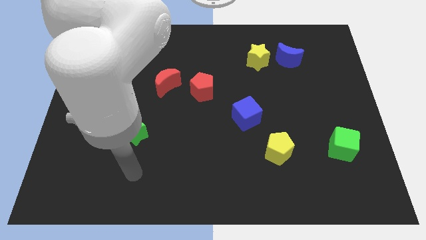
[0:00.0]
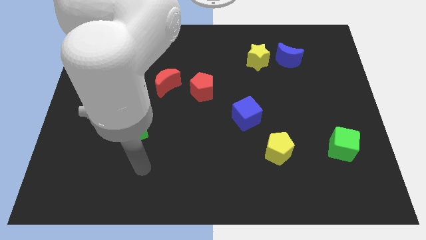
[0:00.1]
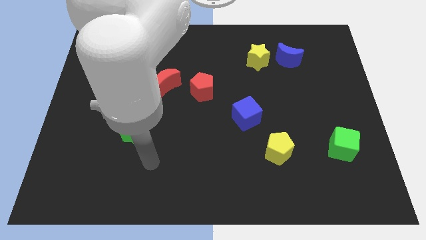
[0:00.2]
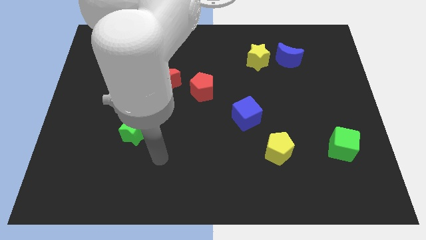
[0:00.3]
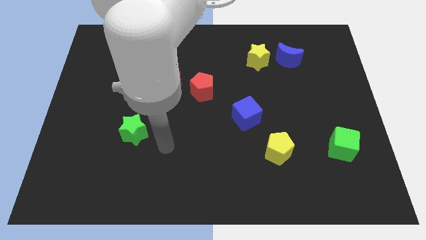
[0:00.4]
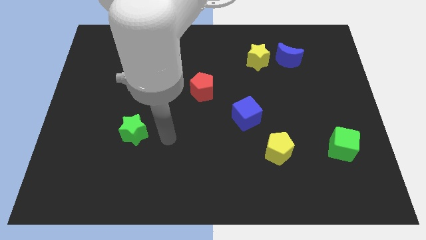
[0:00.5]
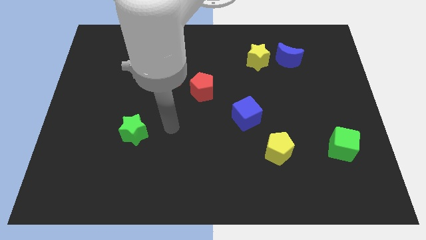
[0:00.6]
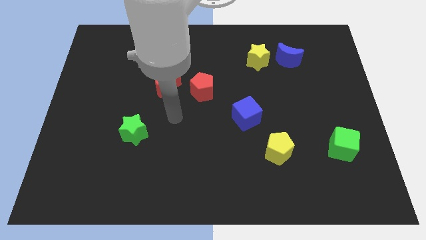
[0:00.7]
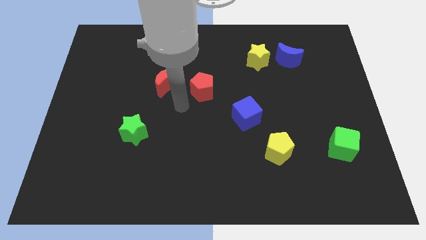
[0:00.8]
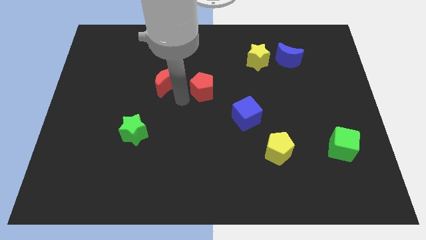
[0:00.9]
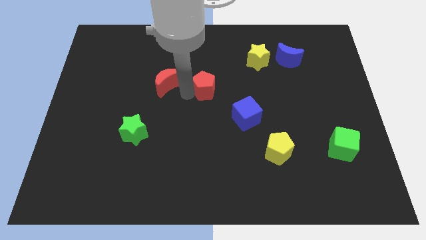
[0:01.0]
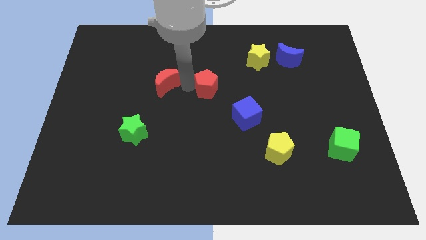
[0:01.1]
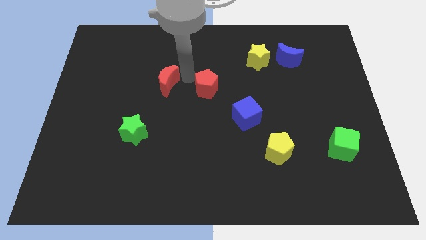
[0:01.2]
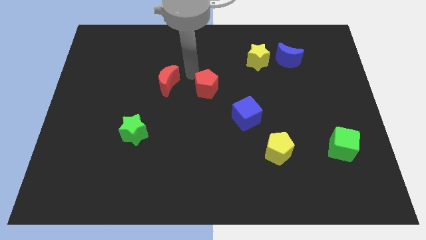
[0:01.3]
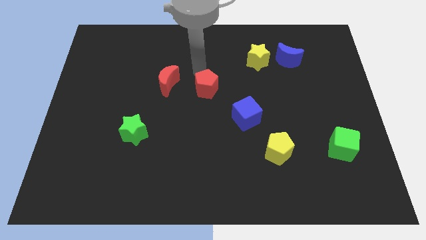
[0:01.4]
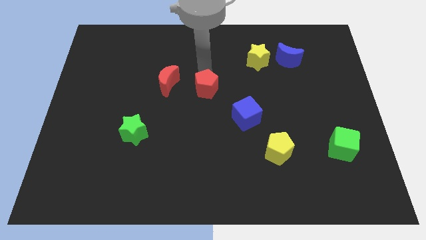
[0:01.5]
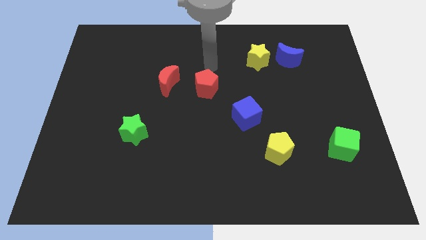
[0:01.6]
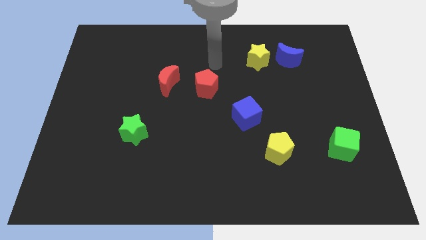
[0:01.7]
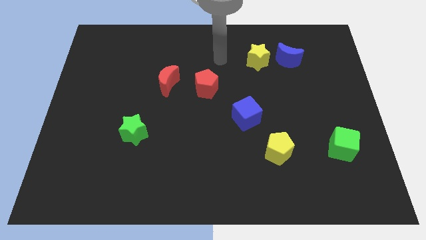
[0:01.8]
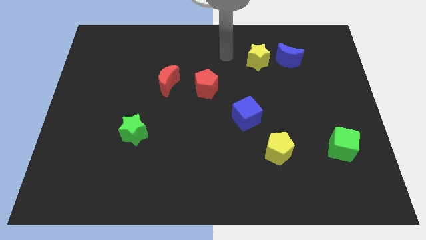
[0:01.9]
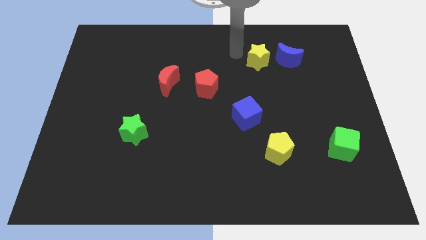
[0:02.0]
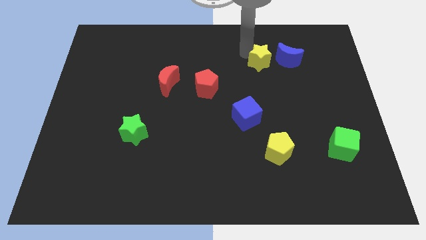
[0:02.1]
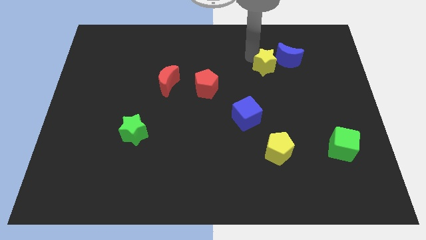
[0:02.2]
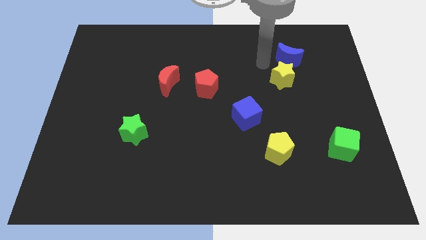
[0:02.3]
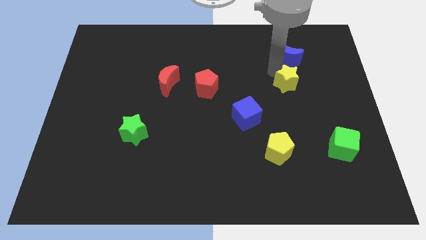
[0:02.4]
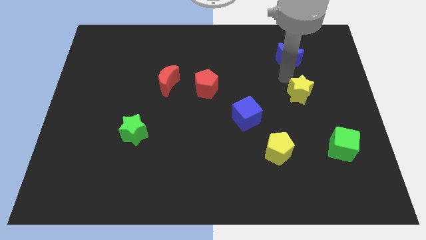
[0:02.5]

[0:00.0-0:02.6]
separate the blue moon from the yellow star

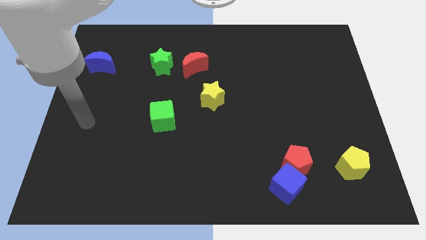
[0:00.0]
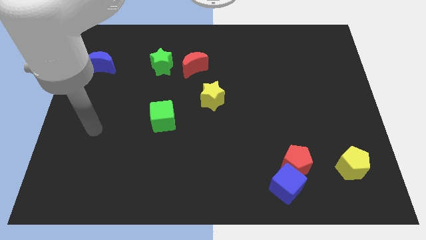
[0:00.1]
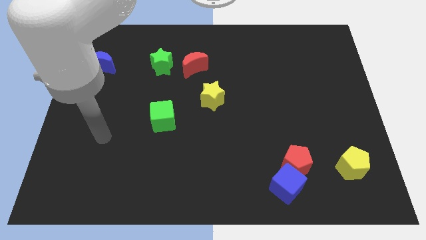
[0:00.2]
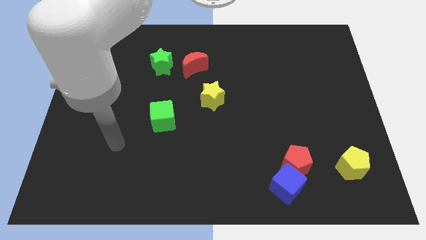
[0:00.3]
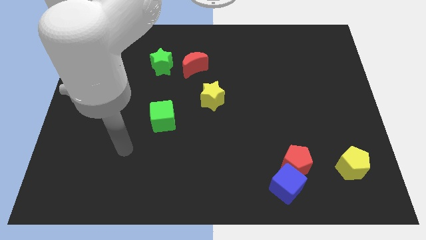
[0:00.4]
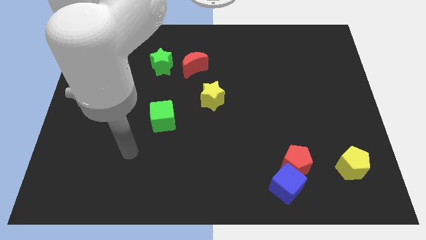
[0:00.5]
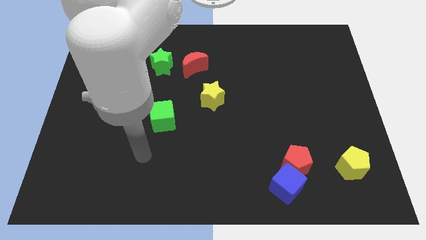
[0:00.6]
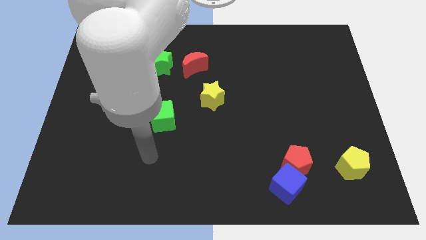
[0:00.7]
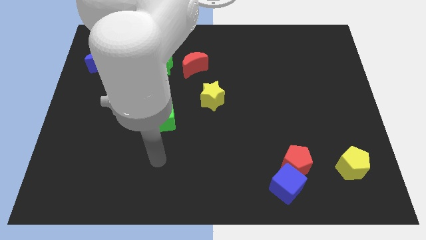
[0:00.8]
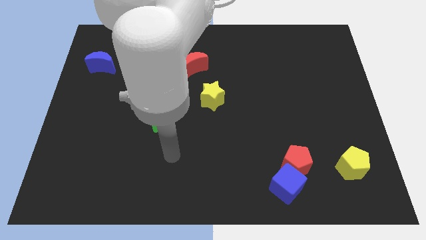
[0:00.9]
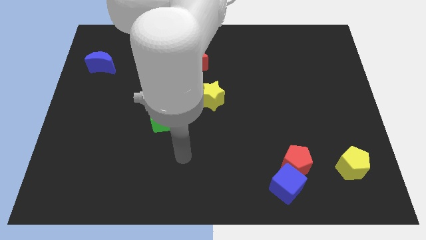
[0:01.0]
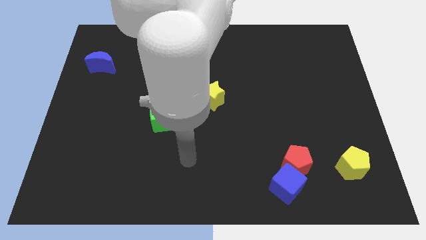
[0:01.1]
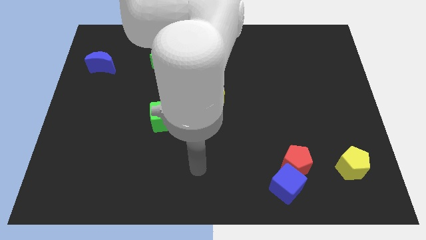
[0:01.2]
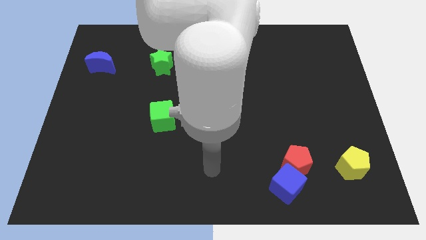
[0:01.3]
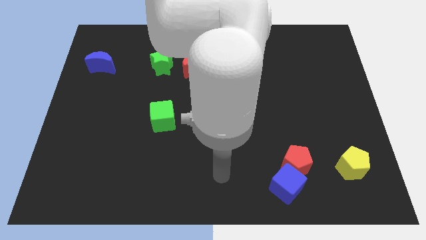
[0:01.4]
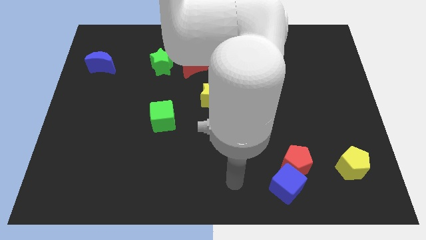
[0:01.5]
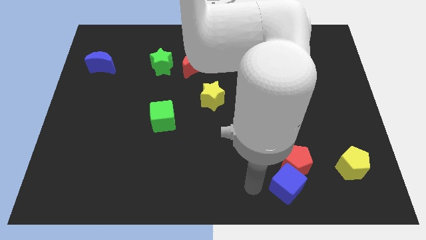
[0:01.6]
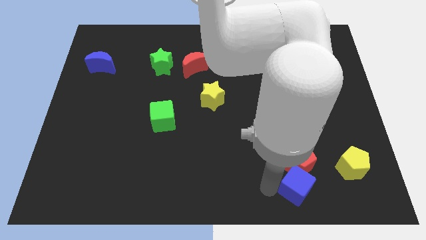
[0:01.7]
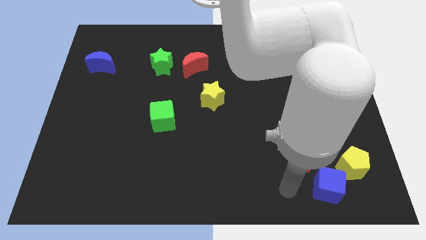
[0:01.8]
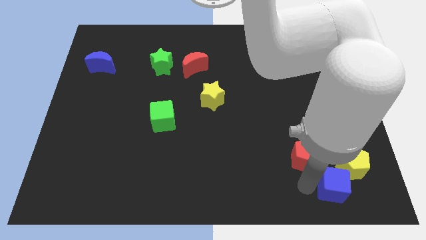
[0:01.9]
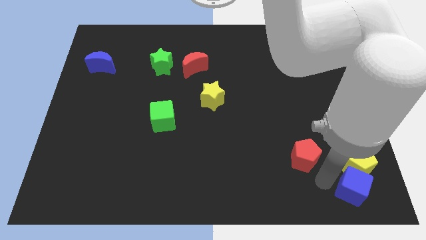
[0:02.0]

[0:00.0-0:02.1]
move the red pentagon away from the blue cube

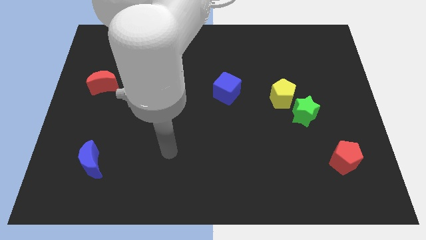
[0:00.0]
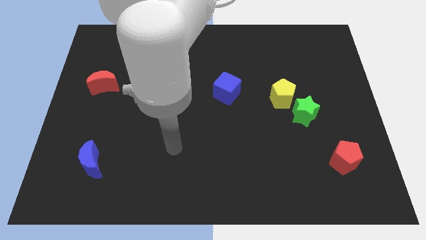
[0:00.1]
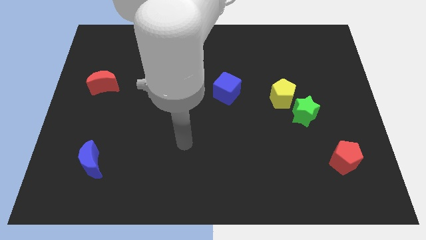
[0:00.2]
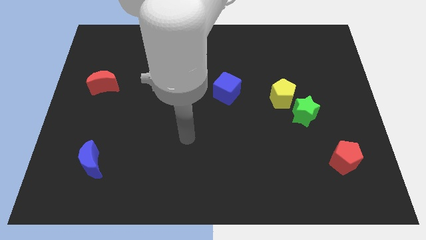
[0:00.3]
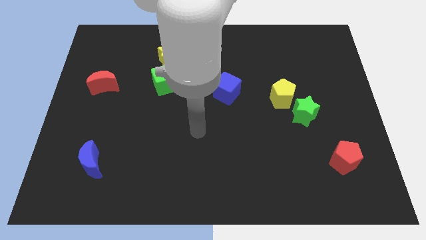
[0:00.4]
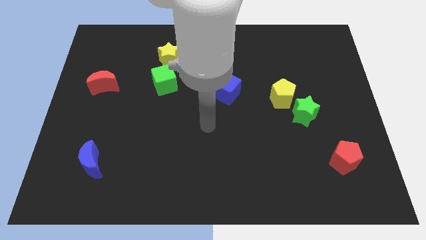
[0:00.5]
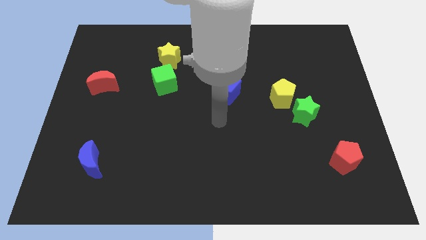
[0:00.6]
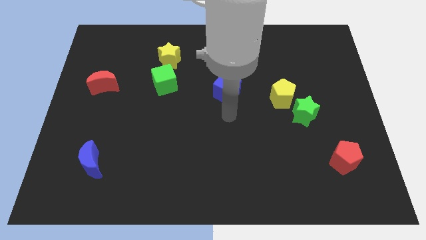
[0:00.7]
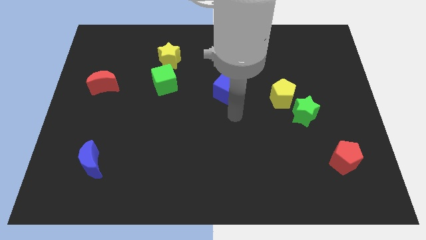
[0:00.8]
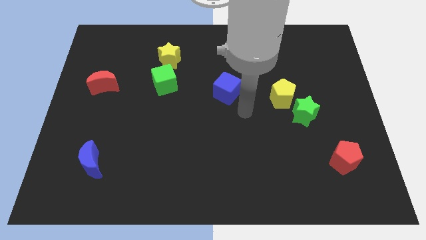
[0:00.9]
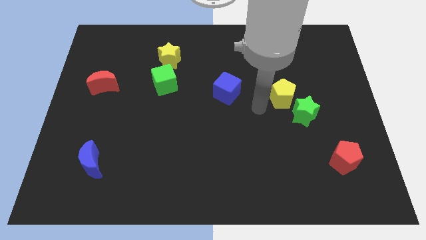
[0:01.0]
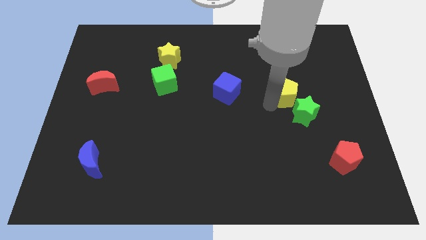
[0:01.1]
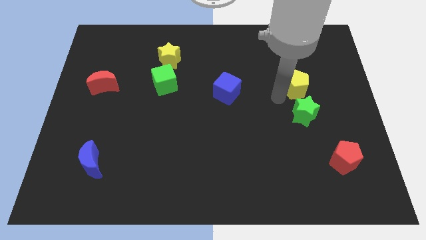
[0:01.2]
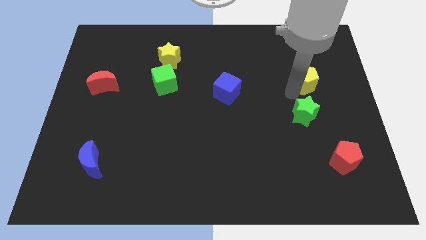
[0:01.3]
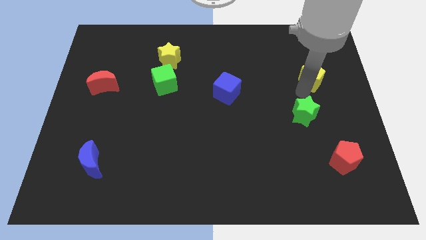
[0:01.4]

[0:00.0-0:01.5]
pull the green star apart from the yellow pentagon

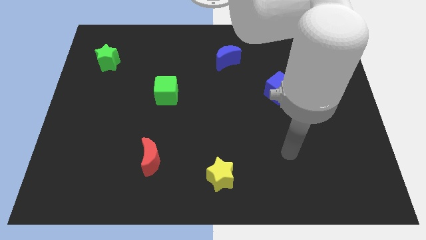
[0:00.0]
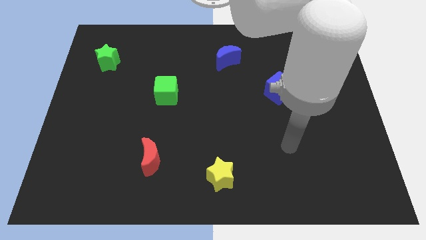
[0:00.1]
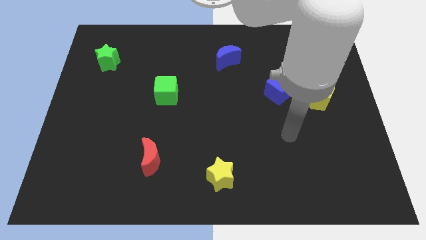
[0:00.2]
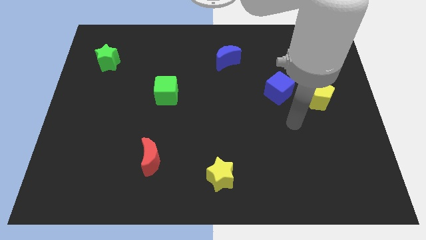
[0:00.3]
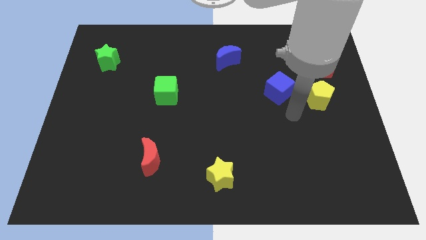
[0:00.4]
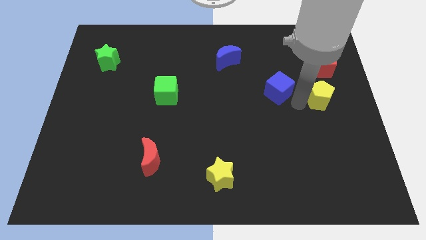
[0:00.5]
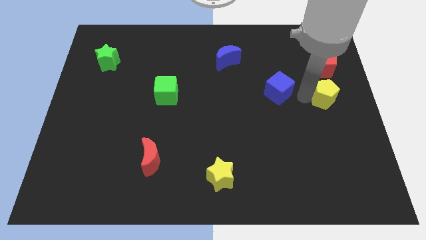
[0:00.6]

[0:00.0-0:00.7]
pull the blue cube apart from the yellow pentagon

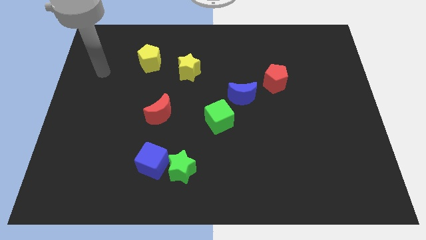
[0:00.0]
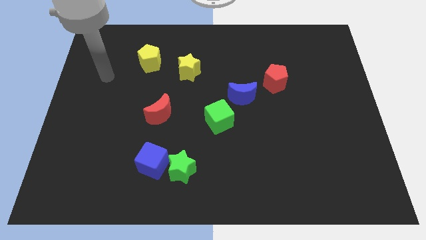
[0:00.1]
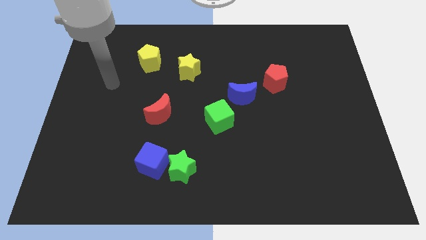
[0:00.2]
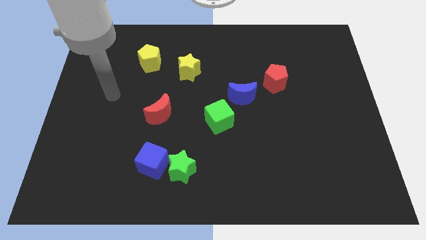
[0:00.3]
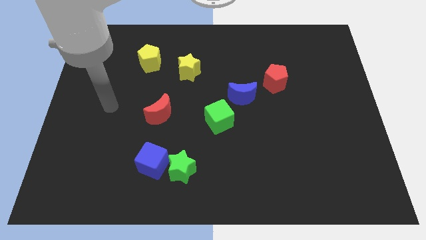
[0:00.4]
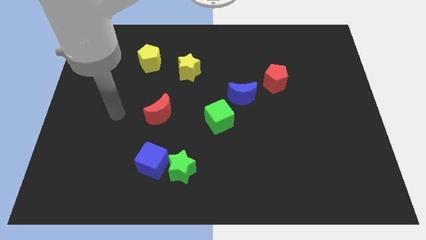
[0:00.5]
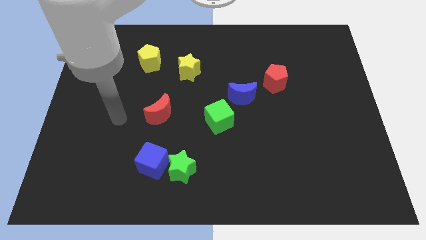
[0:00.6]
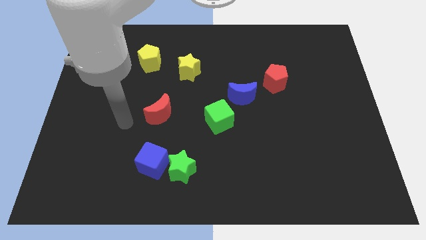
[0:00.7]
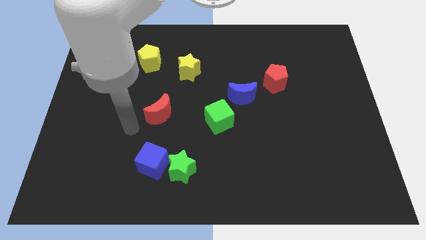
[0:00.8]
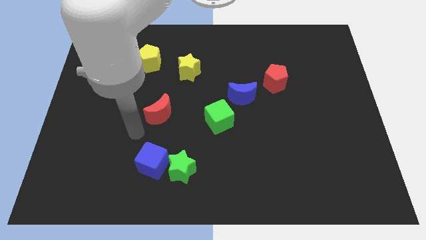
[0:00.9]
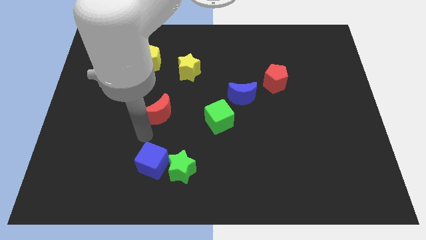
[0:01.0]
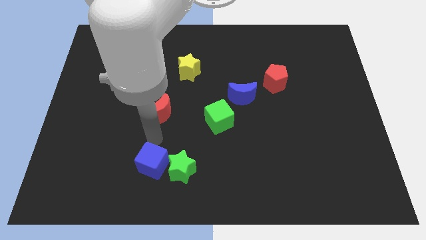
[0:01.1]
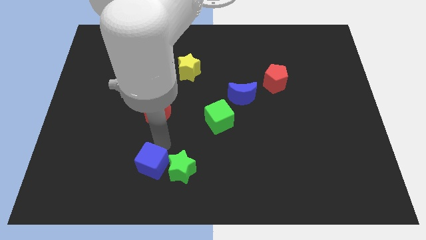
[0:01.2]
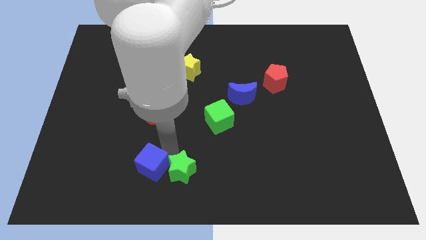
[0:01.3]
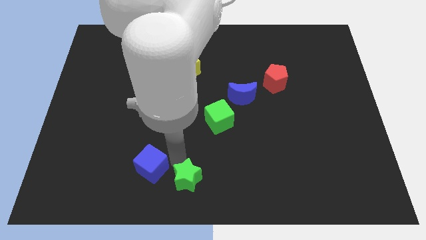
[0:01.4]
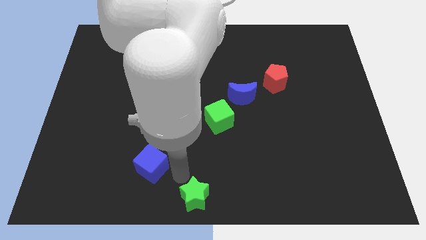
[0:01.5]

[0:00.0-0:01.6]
separate the blue cube from the green star

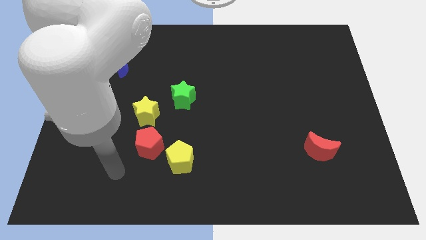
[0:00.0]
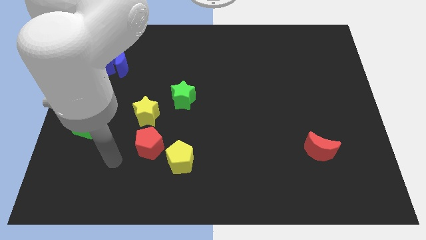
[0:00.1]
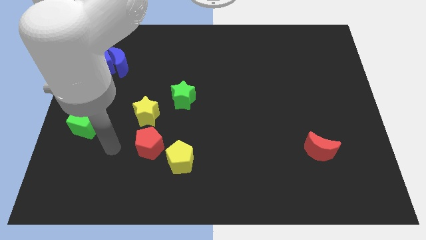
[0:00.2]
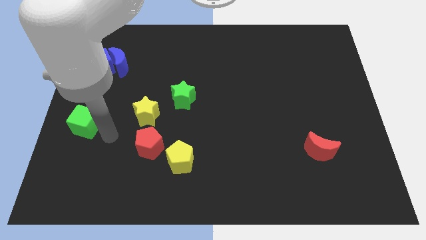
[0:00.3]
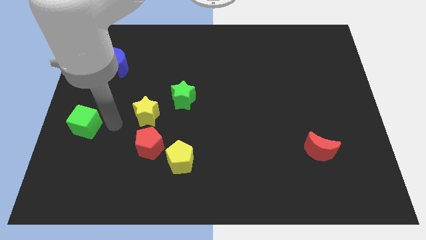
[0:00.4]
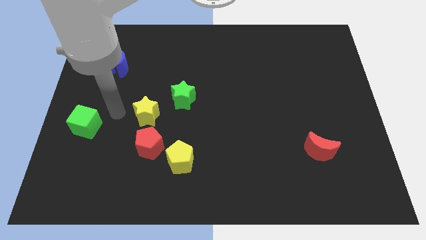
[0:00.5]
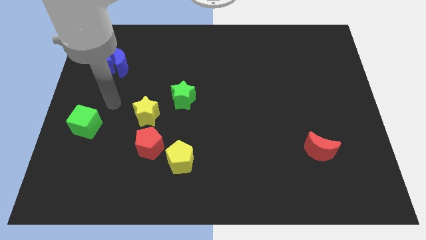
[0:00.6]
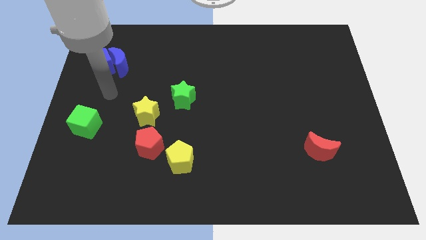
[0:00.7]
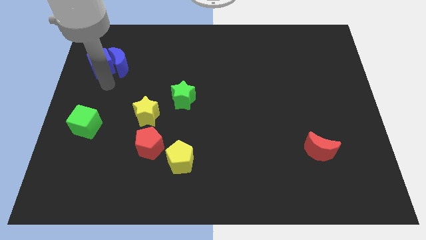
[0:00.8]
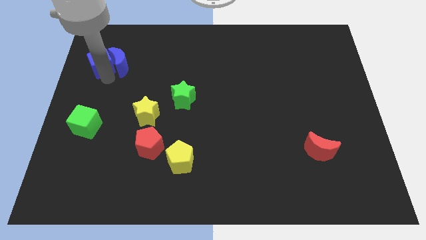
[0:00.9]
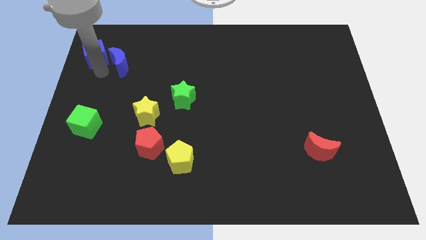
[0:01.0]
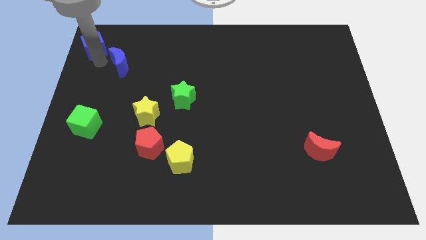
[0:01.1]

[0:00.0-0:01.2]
pull the blue moon apart from the blue cube
